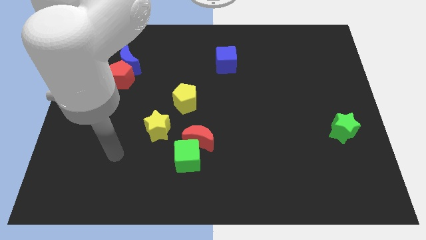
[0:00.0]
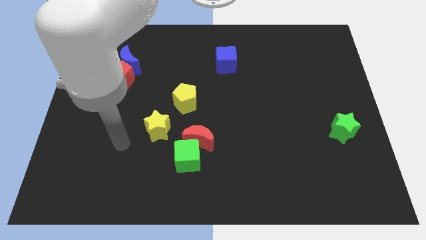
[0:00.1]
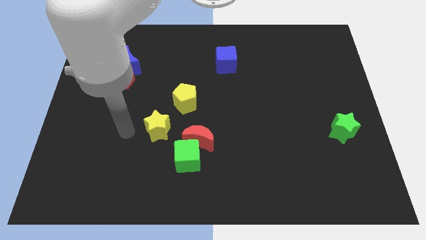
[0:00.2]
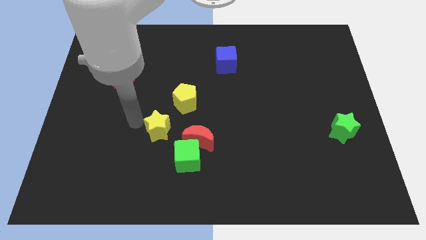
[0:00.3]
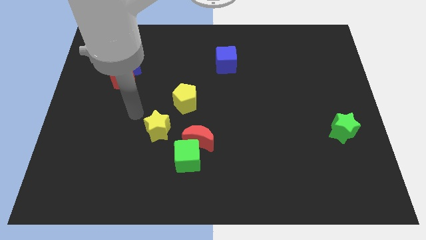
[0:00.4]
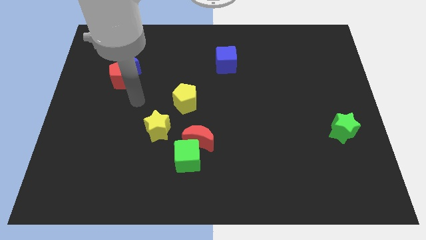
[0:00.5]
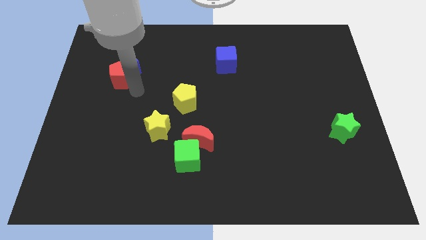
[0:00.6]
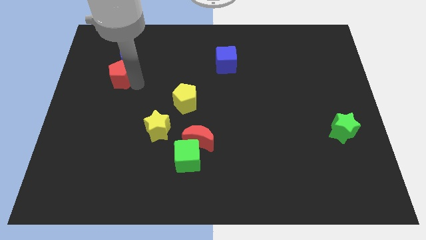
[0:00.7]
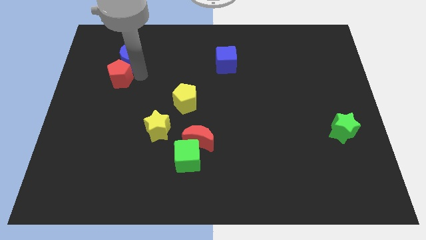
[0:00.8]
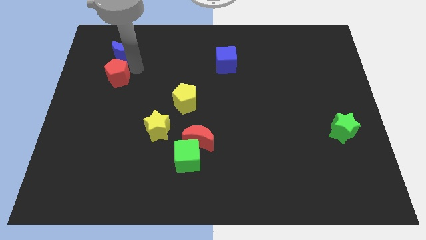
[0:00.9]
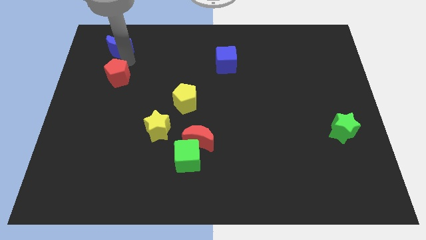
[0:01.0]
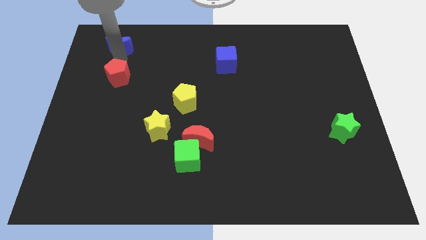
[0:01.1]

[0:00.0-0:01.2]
pull the red pentagon apart from the blue moon

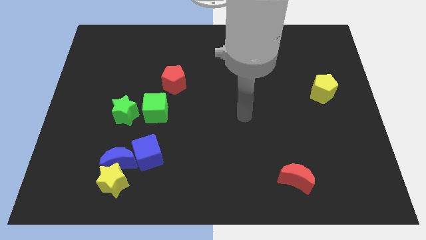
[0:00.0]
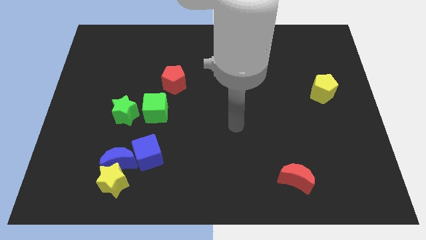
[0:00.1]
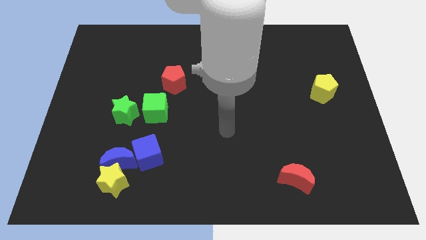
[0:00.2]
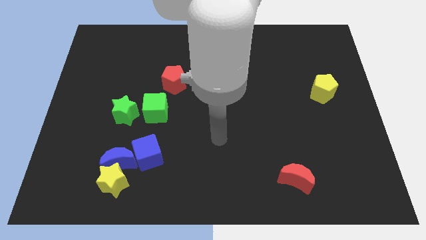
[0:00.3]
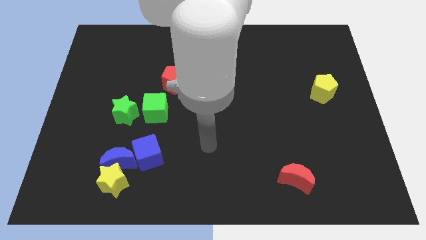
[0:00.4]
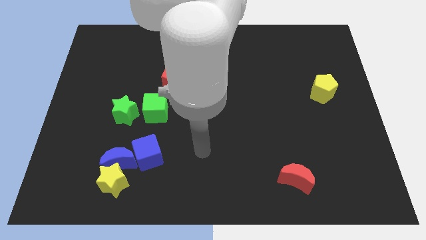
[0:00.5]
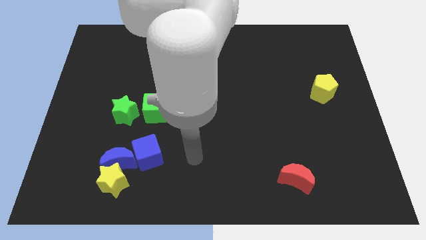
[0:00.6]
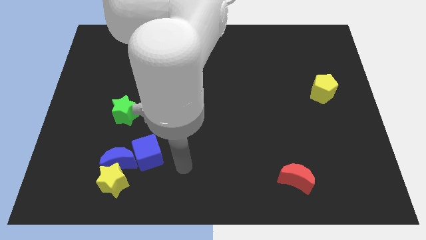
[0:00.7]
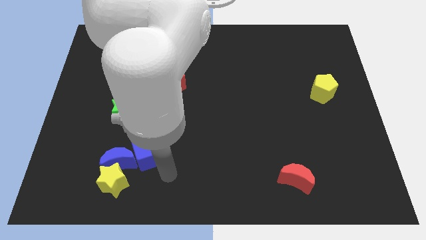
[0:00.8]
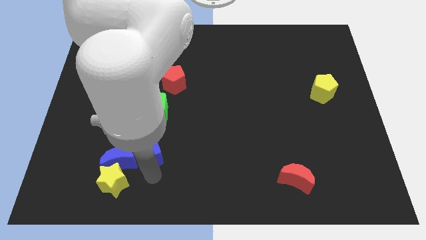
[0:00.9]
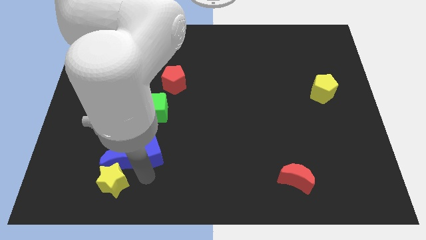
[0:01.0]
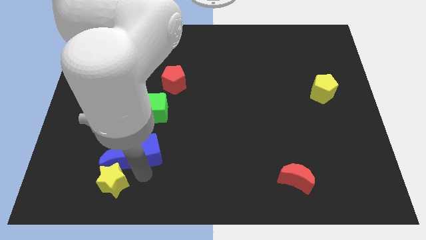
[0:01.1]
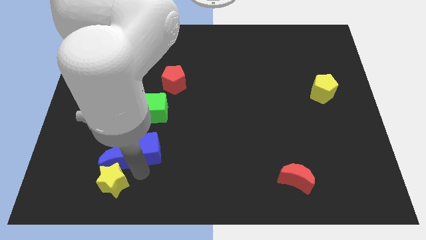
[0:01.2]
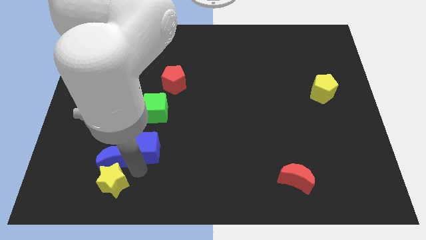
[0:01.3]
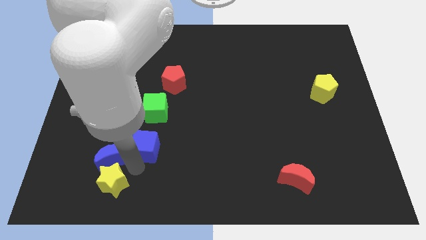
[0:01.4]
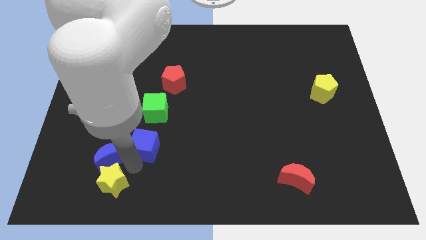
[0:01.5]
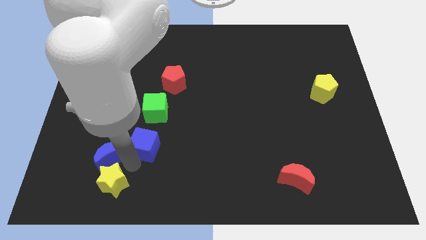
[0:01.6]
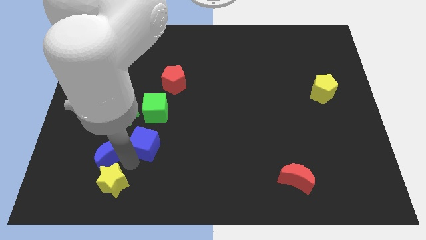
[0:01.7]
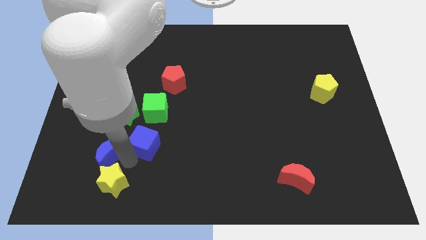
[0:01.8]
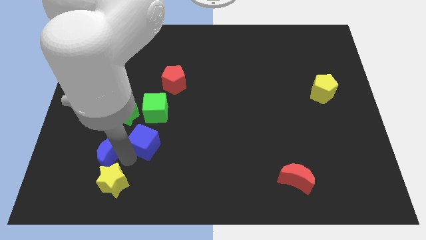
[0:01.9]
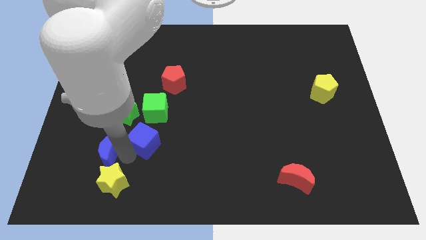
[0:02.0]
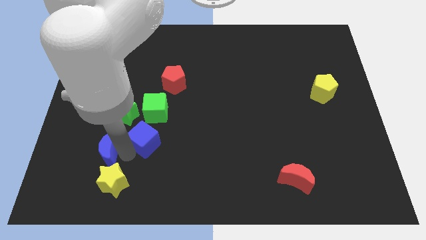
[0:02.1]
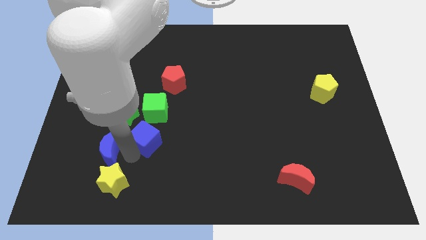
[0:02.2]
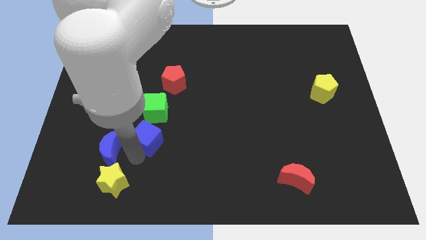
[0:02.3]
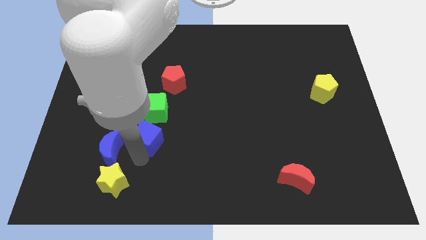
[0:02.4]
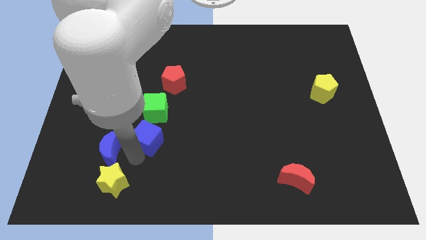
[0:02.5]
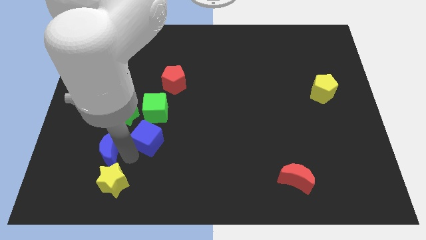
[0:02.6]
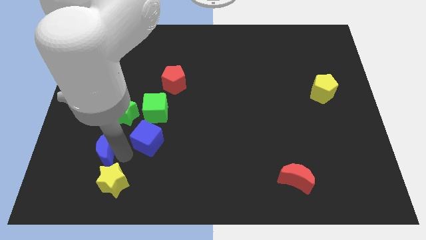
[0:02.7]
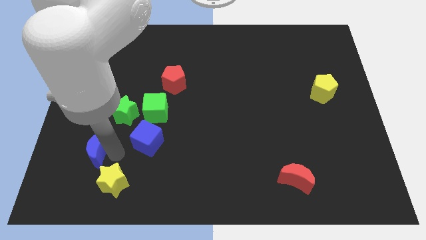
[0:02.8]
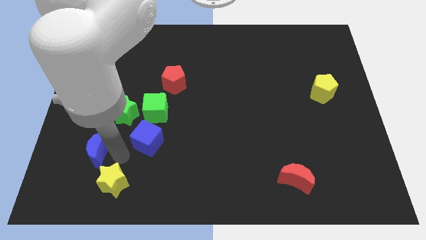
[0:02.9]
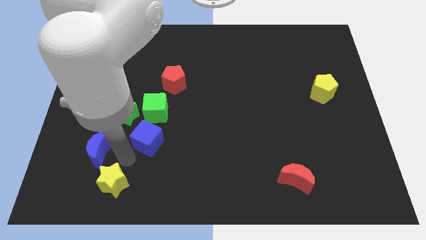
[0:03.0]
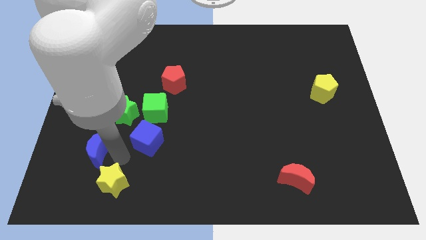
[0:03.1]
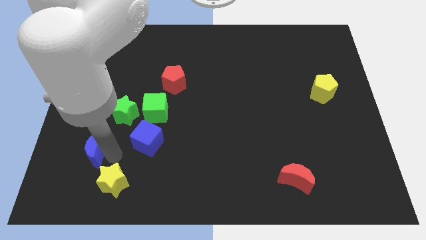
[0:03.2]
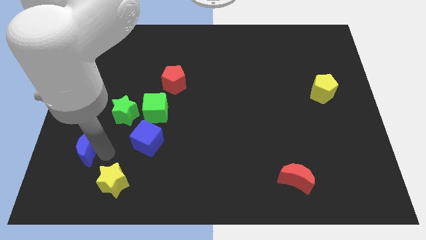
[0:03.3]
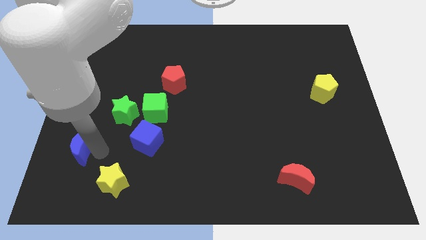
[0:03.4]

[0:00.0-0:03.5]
move the blue moon away from the yellow star and blue cube

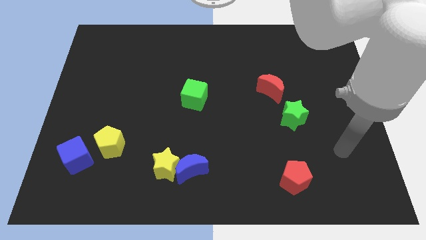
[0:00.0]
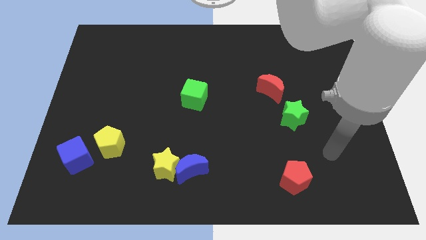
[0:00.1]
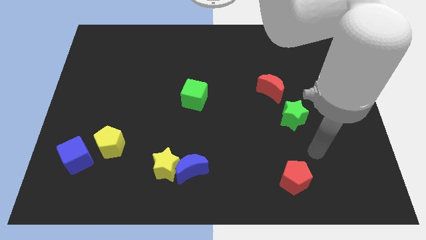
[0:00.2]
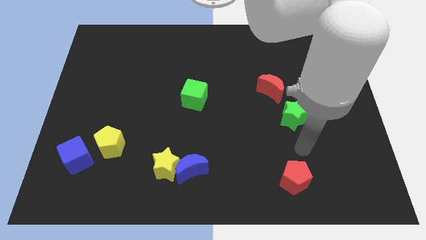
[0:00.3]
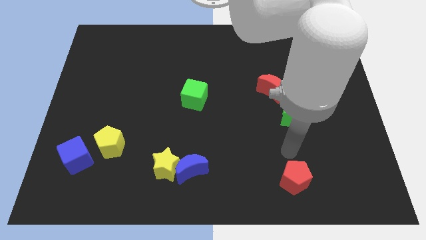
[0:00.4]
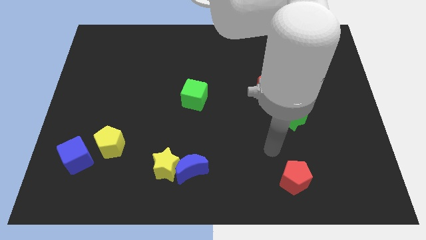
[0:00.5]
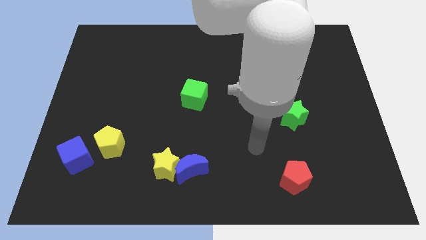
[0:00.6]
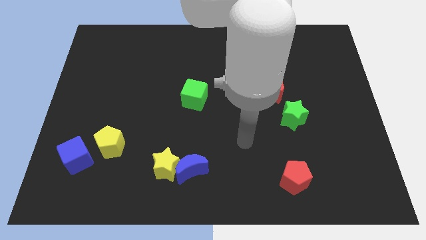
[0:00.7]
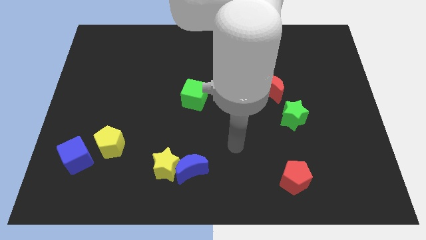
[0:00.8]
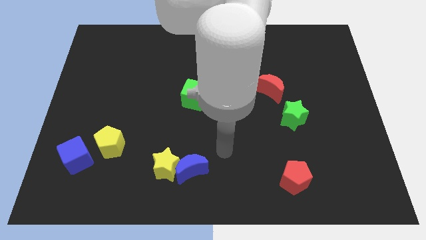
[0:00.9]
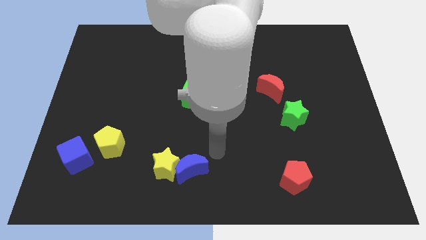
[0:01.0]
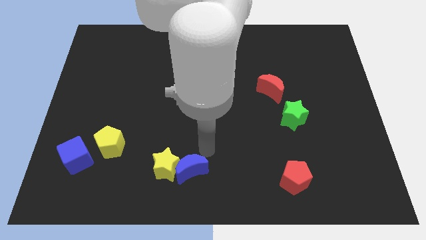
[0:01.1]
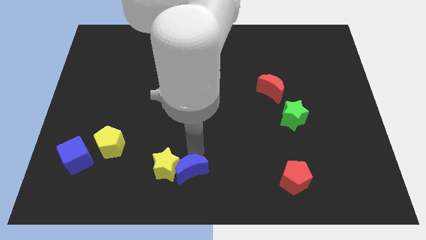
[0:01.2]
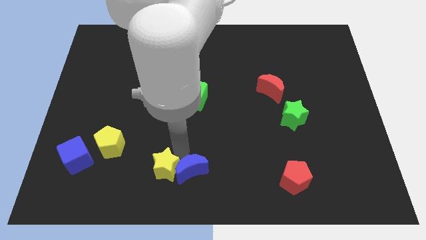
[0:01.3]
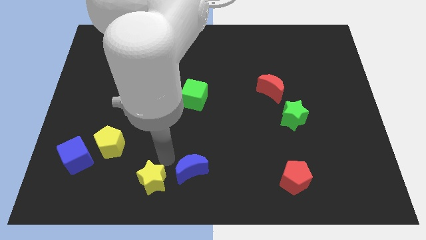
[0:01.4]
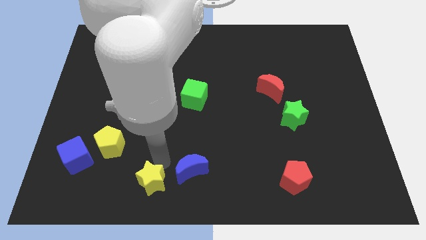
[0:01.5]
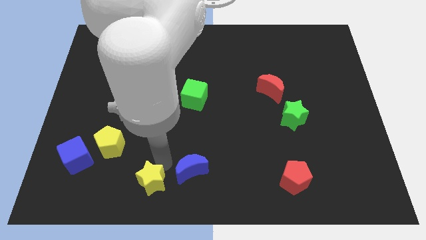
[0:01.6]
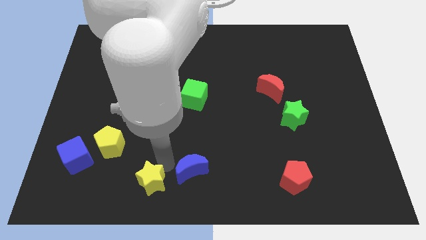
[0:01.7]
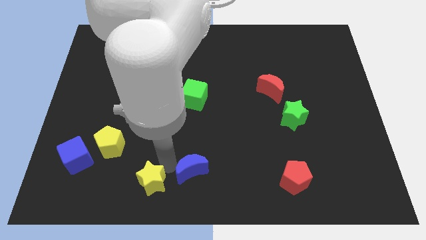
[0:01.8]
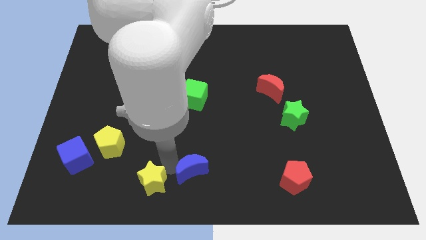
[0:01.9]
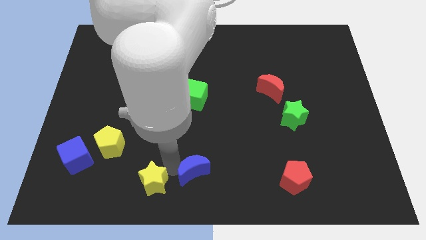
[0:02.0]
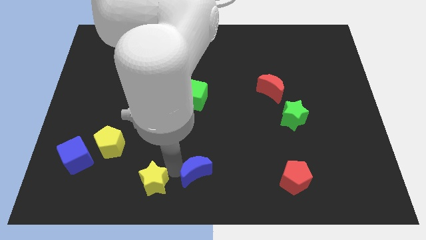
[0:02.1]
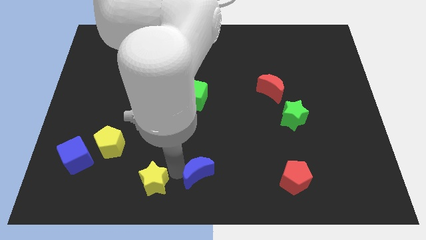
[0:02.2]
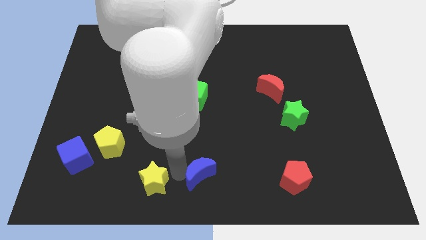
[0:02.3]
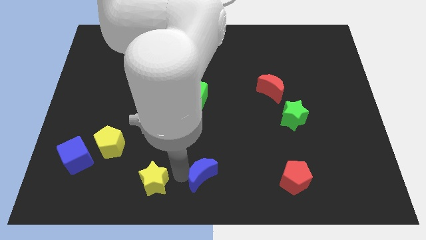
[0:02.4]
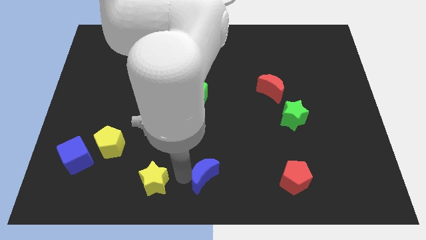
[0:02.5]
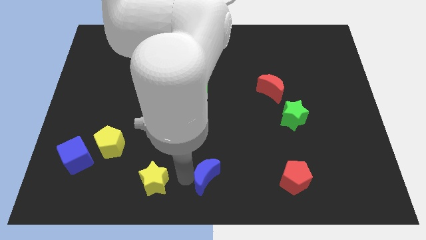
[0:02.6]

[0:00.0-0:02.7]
separate the blue moon from the yellow star

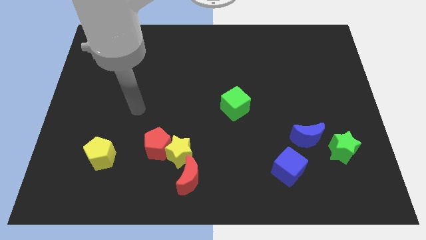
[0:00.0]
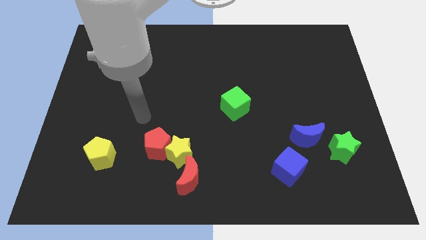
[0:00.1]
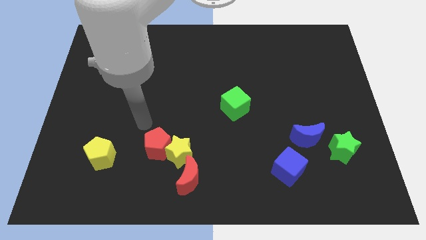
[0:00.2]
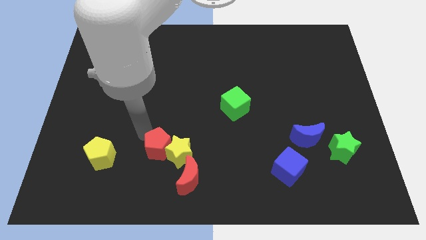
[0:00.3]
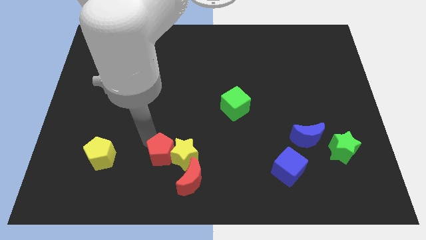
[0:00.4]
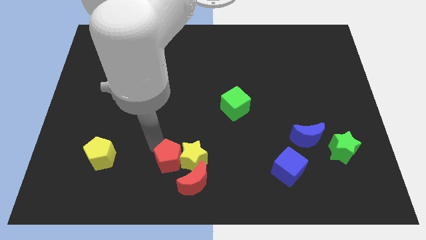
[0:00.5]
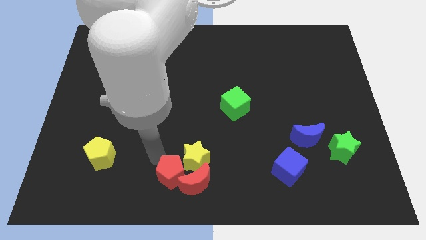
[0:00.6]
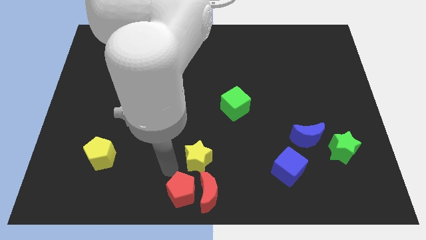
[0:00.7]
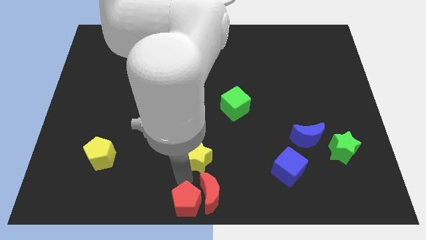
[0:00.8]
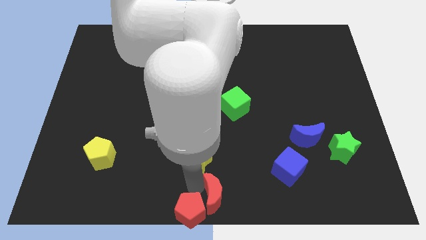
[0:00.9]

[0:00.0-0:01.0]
move the yellow star away from the red pentagon and red moon

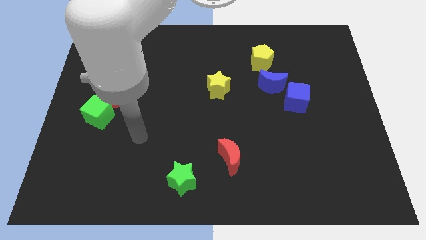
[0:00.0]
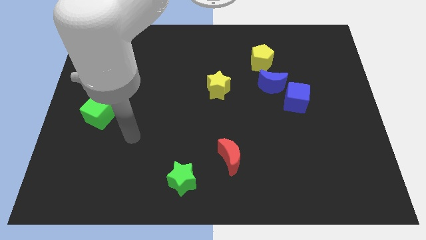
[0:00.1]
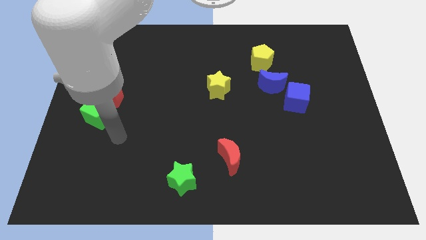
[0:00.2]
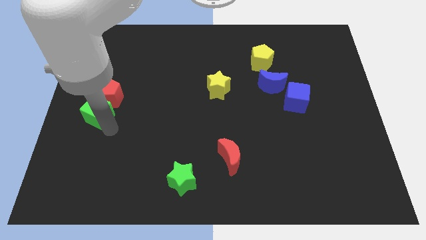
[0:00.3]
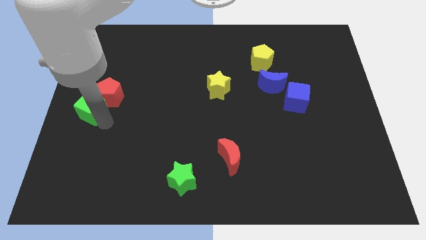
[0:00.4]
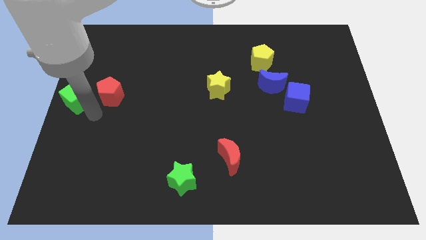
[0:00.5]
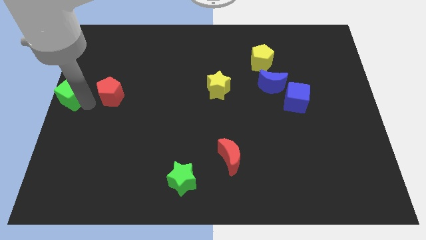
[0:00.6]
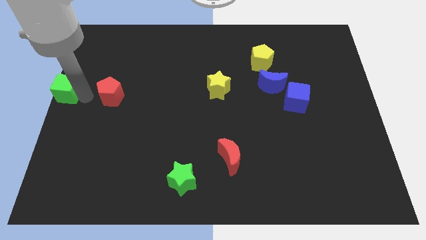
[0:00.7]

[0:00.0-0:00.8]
pull the red pentagon apart from the green cube
